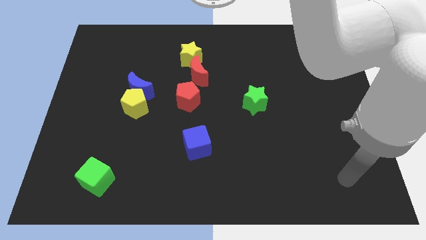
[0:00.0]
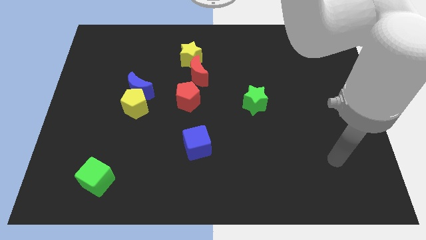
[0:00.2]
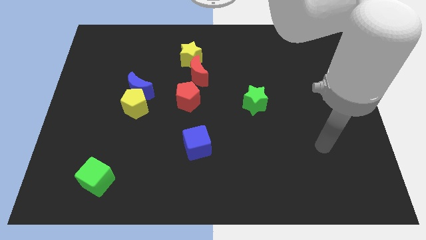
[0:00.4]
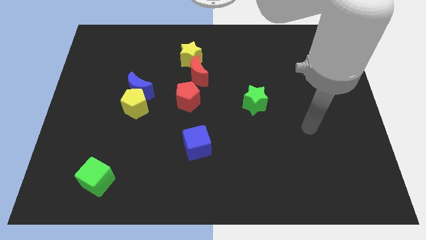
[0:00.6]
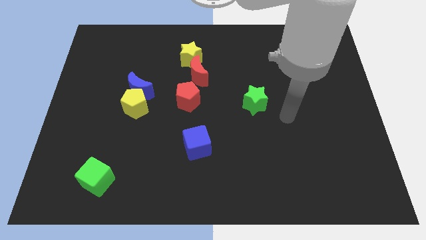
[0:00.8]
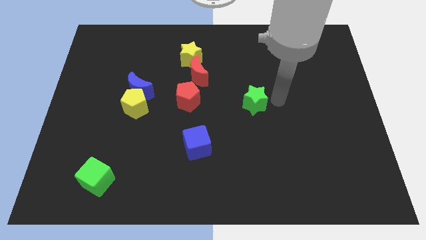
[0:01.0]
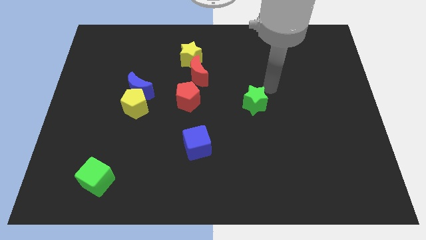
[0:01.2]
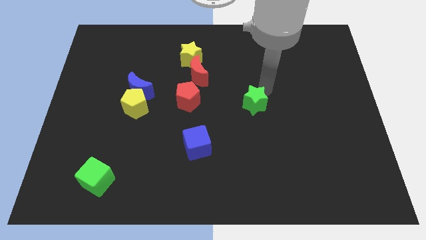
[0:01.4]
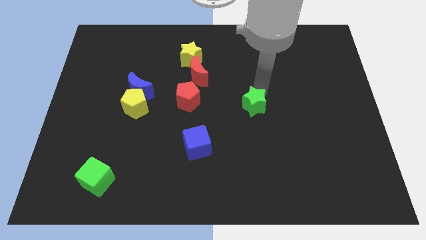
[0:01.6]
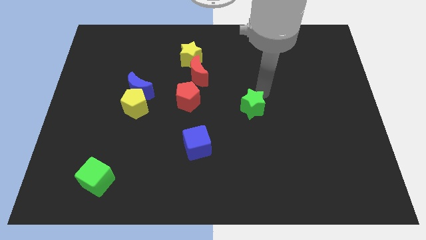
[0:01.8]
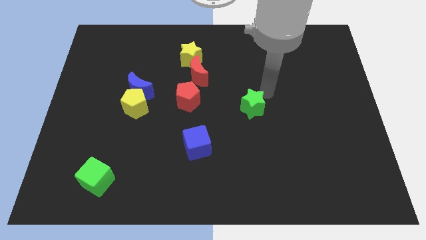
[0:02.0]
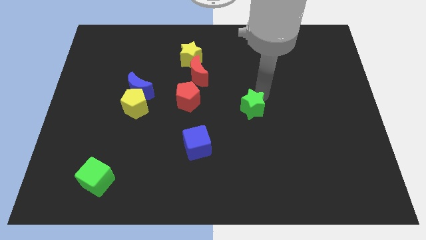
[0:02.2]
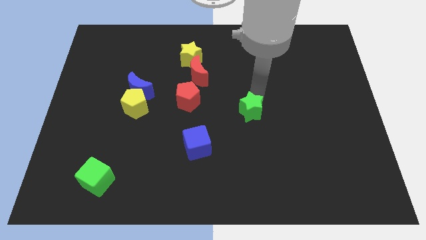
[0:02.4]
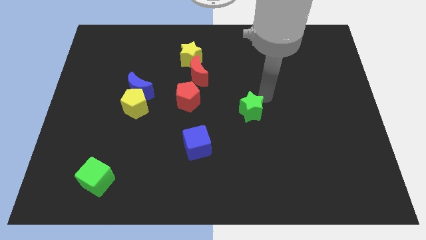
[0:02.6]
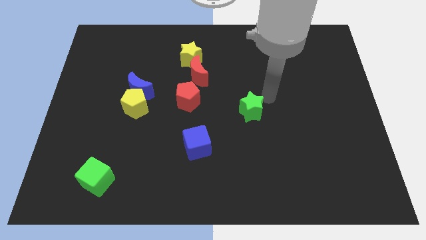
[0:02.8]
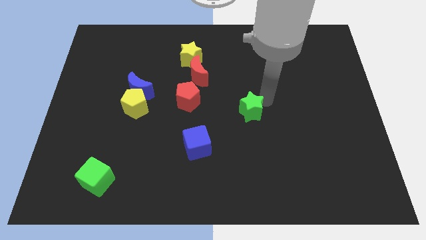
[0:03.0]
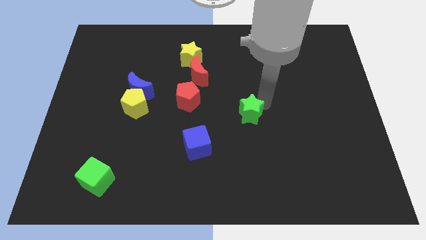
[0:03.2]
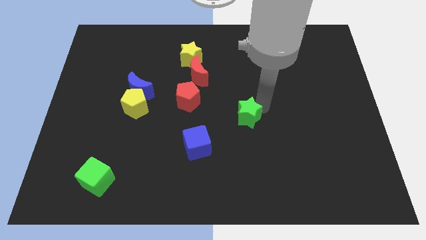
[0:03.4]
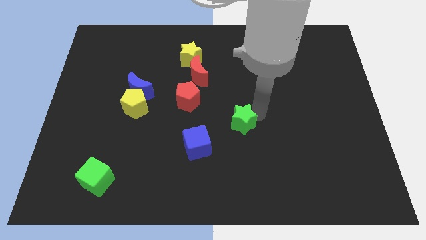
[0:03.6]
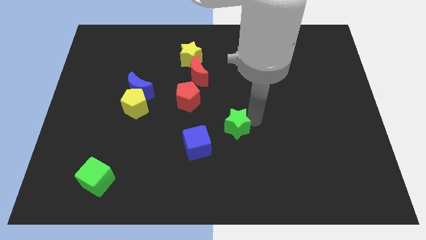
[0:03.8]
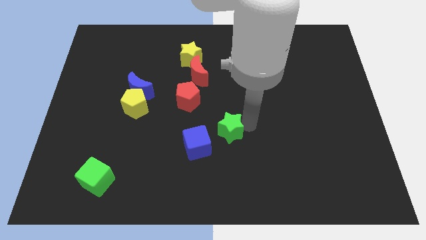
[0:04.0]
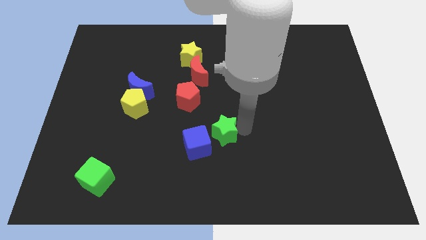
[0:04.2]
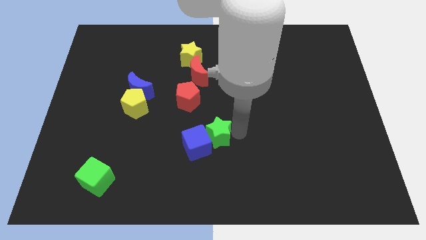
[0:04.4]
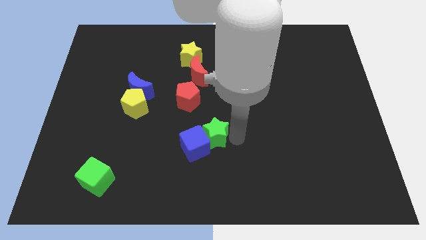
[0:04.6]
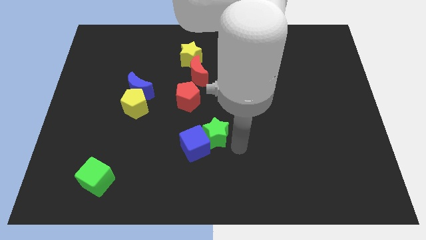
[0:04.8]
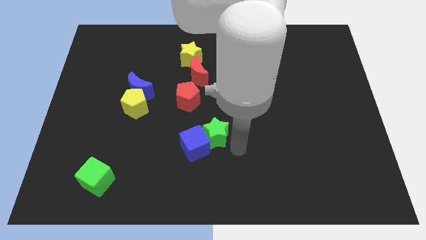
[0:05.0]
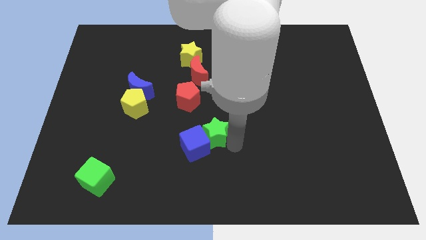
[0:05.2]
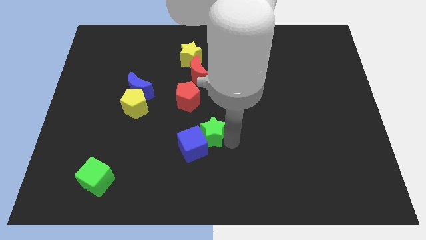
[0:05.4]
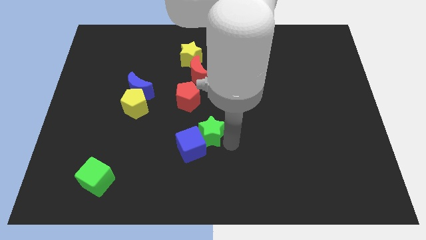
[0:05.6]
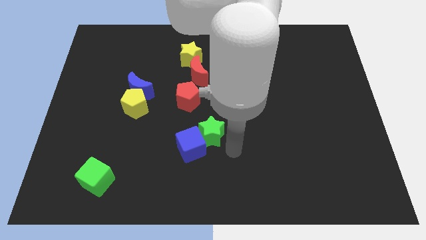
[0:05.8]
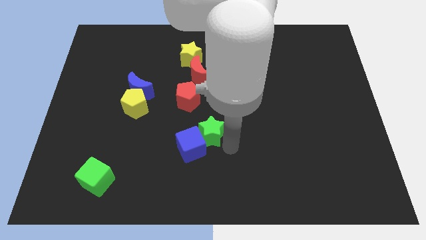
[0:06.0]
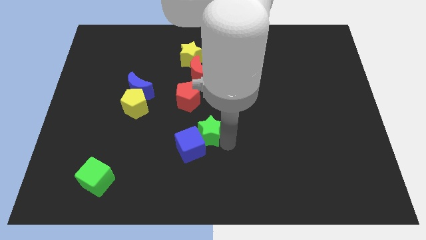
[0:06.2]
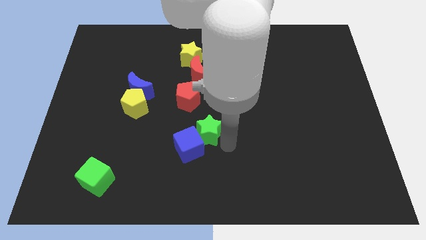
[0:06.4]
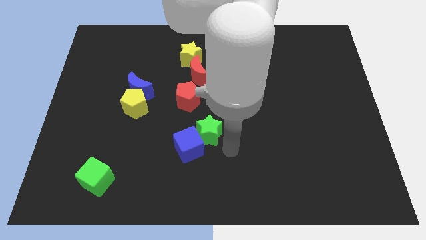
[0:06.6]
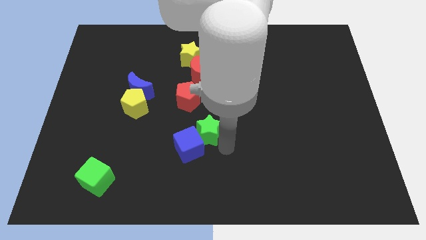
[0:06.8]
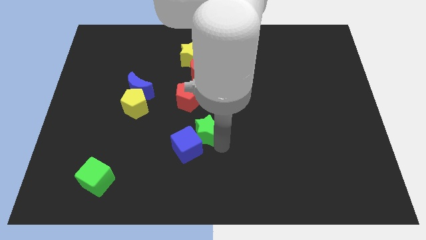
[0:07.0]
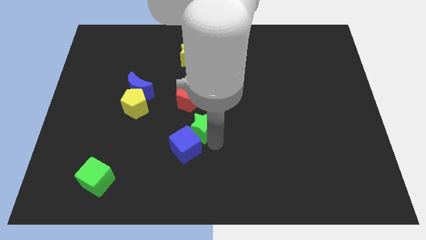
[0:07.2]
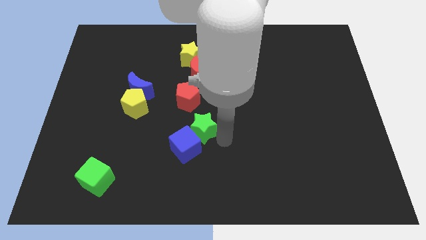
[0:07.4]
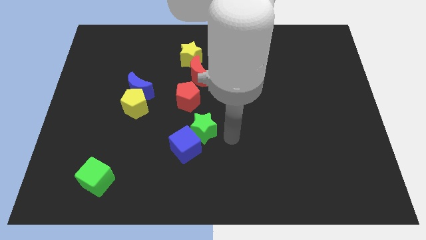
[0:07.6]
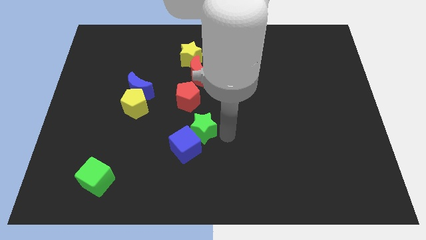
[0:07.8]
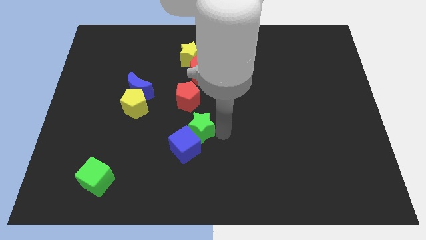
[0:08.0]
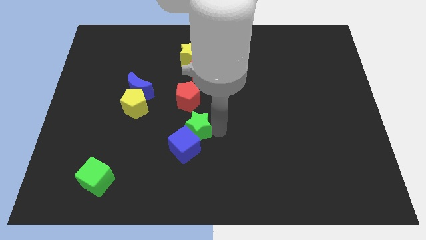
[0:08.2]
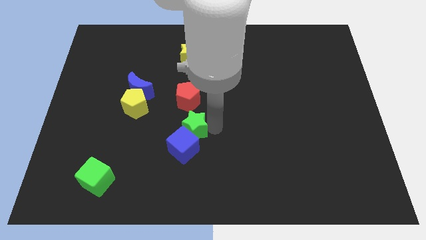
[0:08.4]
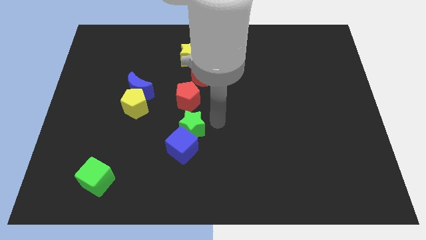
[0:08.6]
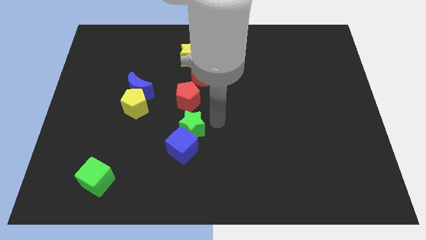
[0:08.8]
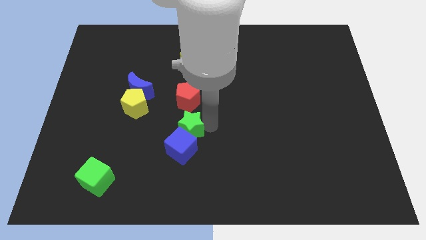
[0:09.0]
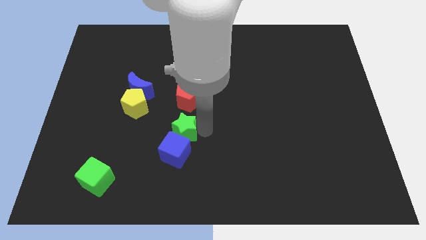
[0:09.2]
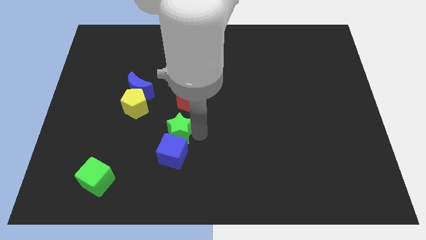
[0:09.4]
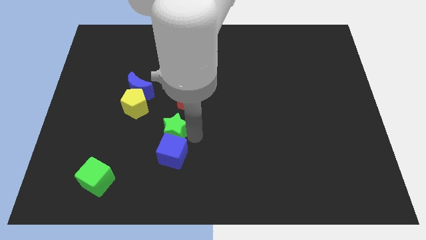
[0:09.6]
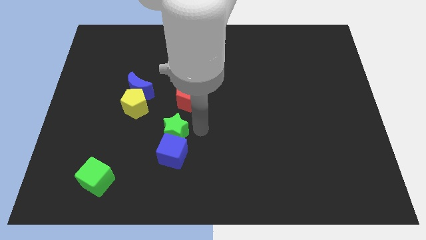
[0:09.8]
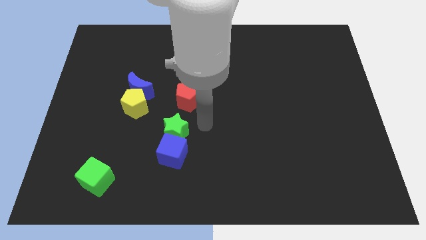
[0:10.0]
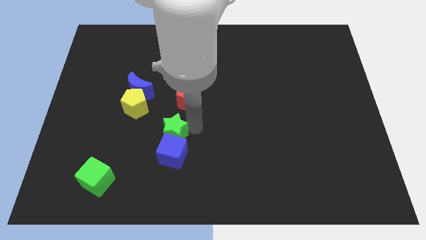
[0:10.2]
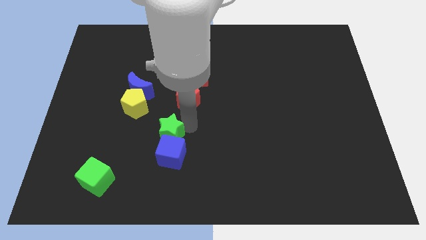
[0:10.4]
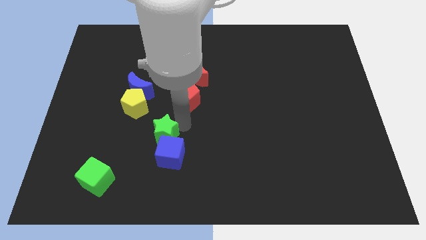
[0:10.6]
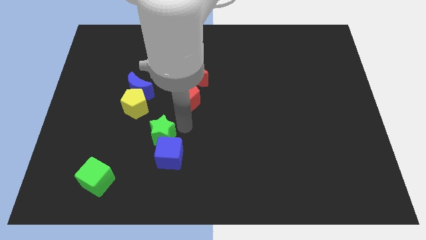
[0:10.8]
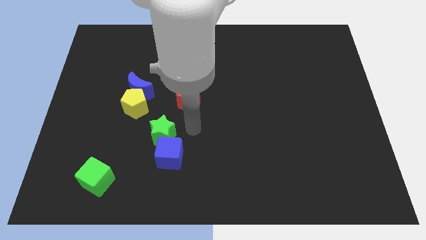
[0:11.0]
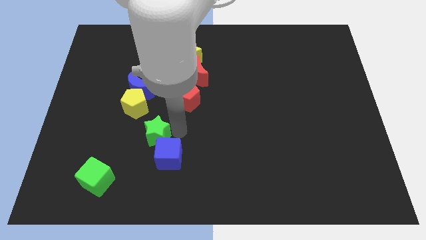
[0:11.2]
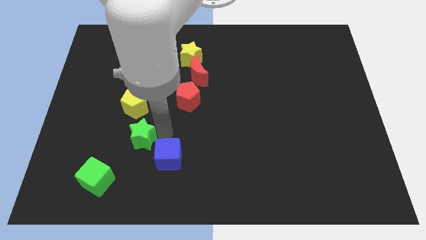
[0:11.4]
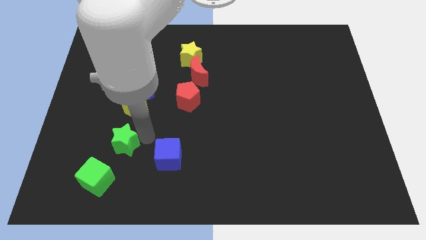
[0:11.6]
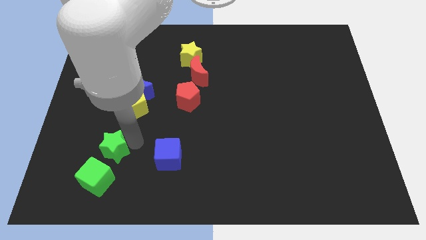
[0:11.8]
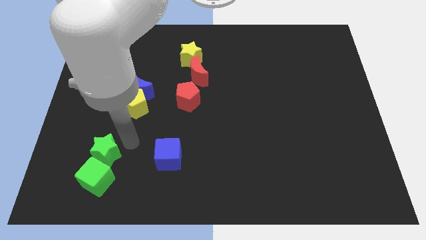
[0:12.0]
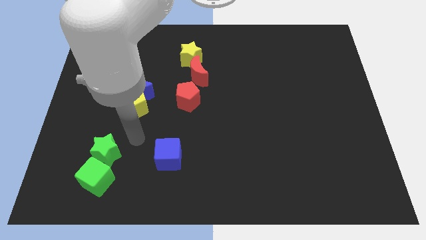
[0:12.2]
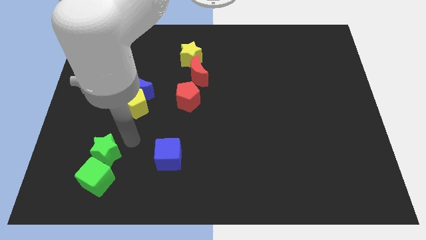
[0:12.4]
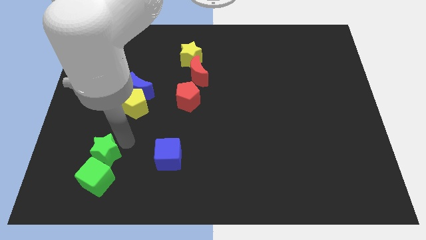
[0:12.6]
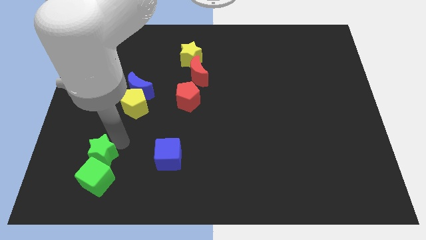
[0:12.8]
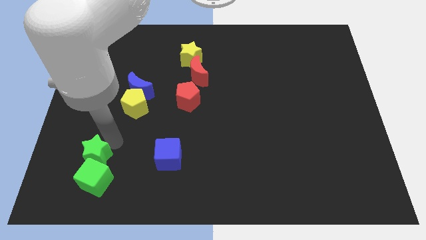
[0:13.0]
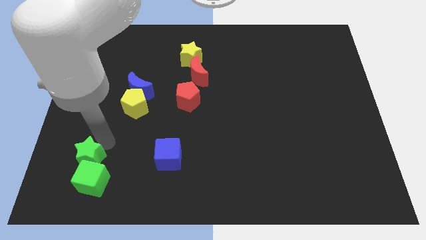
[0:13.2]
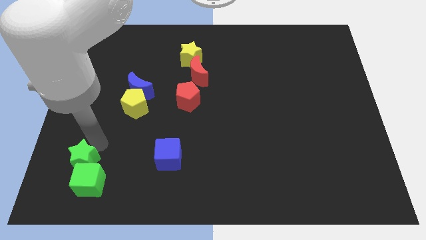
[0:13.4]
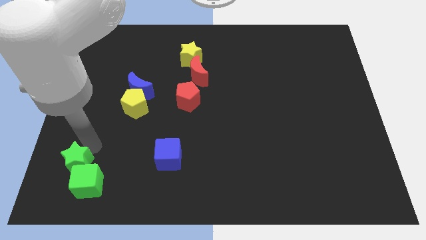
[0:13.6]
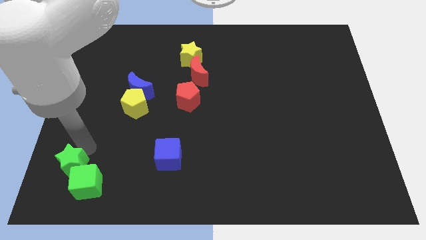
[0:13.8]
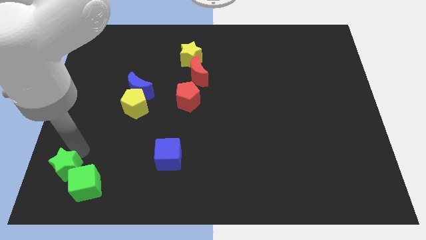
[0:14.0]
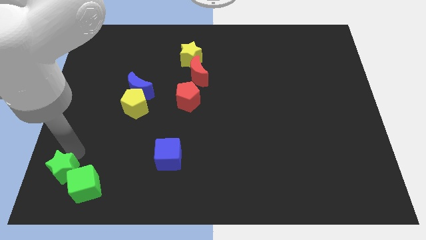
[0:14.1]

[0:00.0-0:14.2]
move the green star to the bottom left corner
